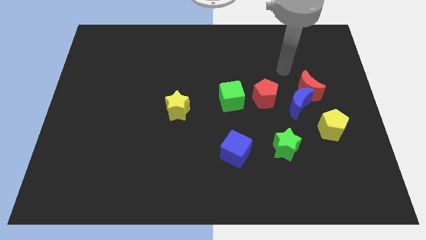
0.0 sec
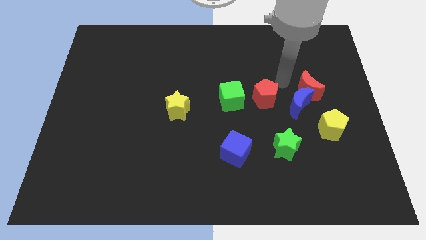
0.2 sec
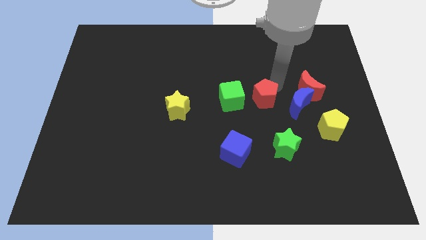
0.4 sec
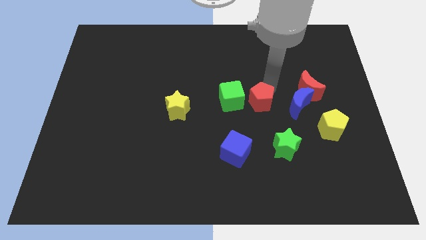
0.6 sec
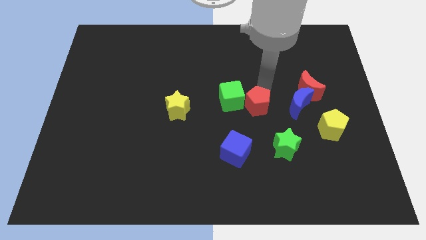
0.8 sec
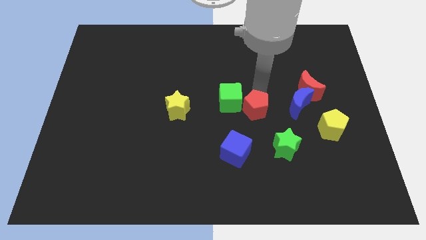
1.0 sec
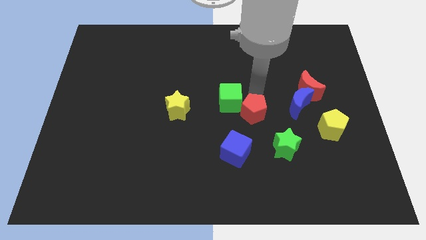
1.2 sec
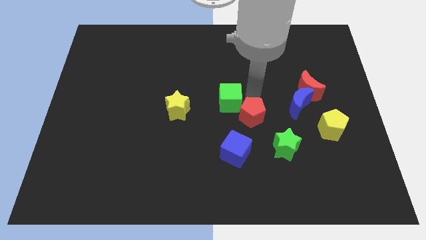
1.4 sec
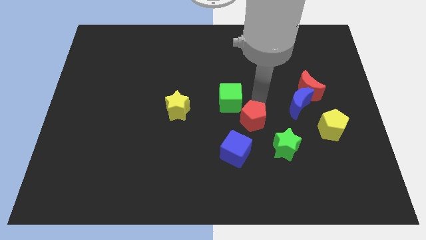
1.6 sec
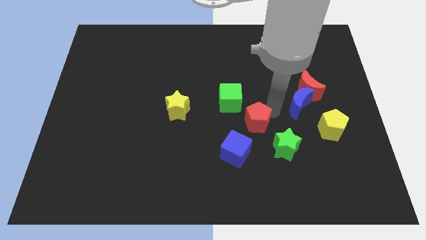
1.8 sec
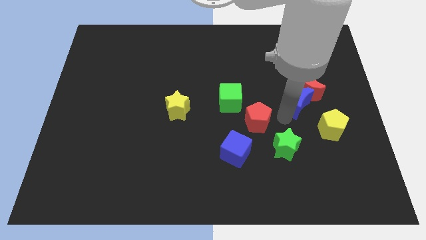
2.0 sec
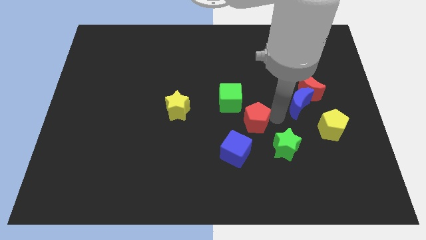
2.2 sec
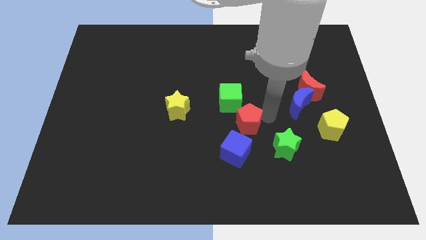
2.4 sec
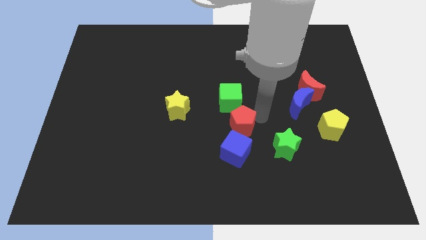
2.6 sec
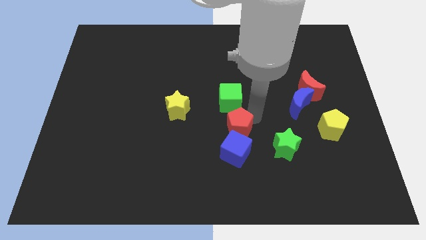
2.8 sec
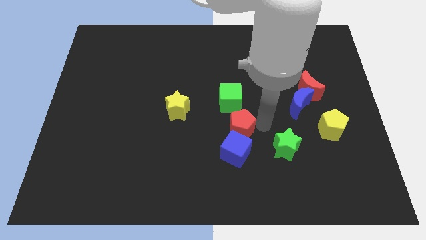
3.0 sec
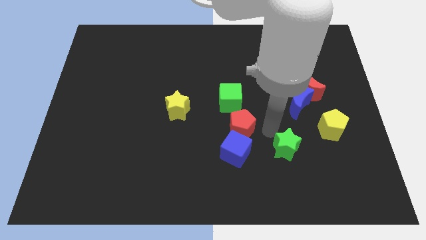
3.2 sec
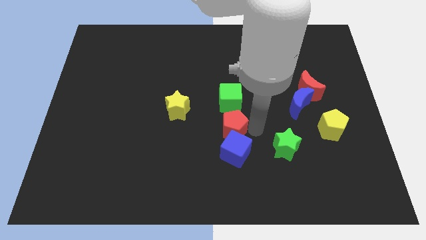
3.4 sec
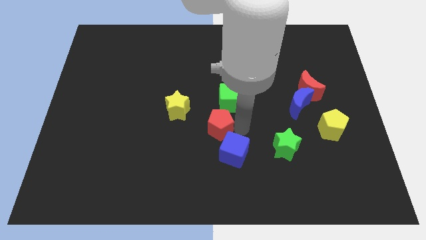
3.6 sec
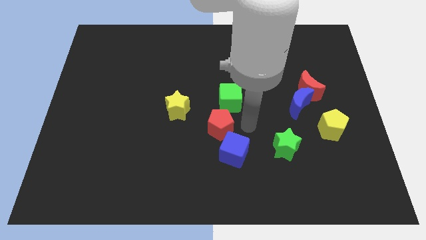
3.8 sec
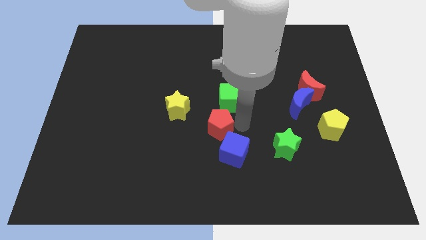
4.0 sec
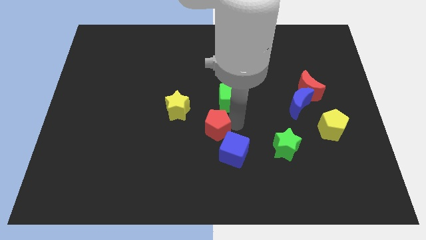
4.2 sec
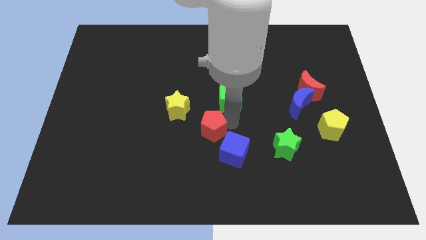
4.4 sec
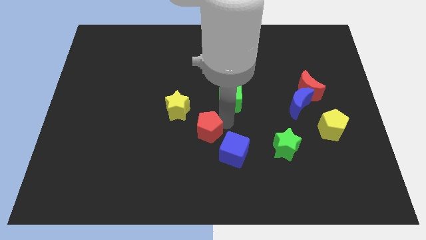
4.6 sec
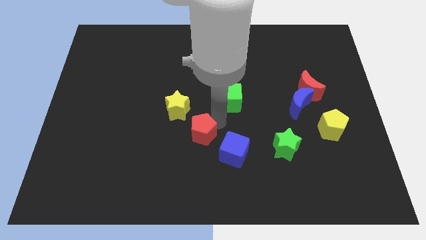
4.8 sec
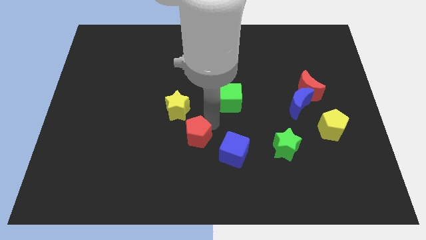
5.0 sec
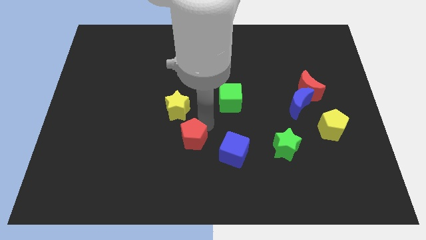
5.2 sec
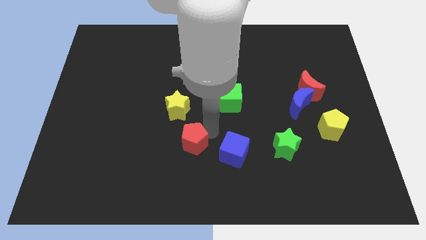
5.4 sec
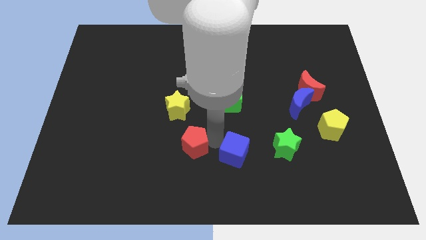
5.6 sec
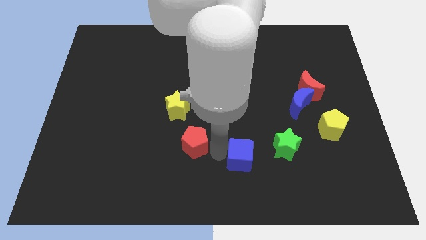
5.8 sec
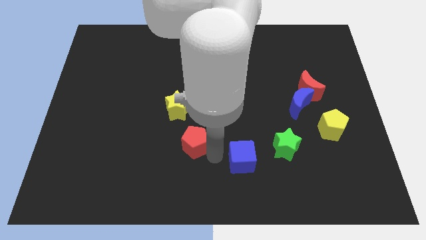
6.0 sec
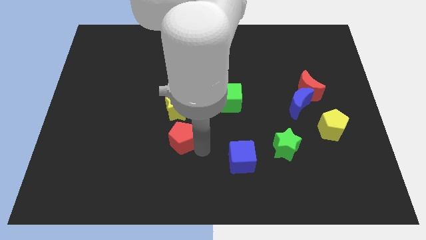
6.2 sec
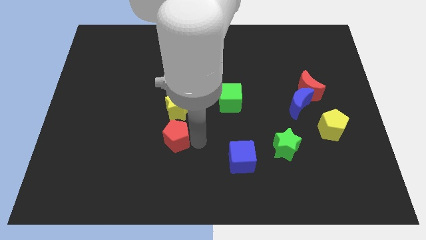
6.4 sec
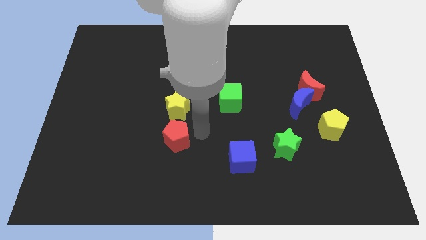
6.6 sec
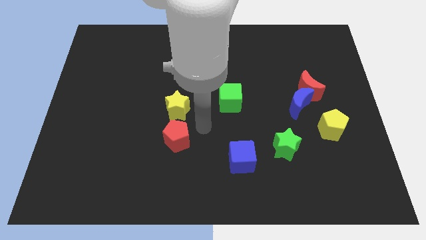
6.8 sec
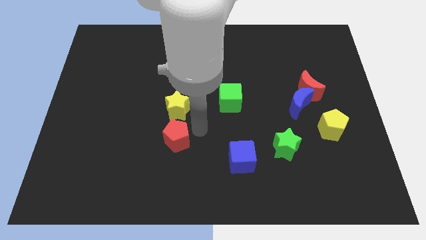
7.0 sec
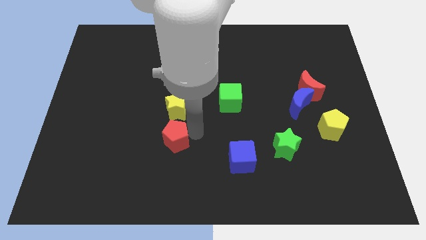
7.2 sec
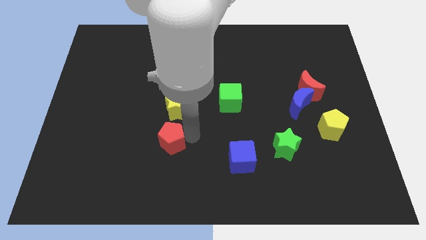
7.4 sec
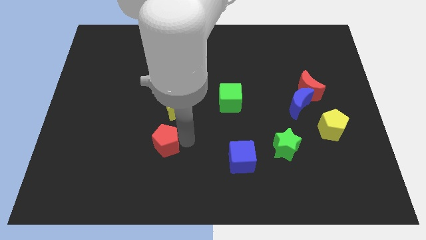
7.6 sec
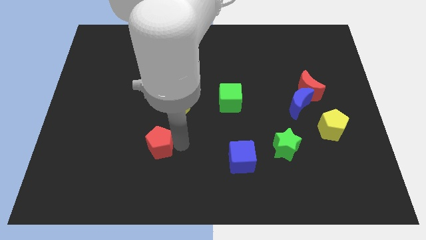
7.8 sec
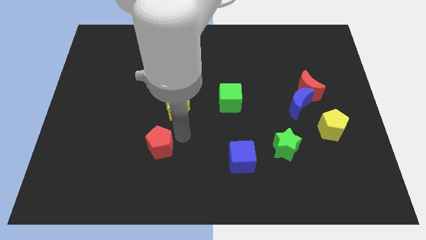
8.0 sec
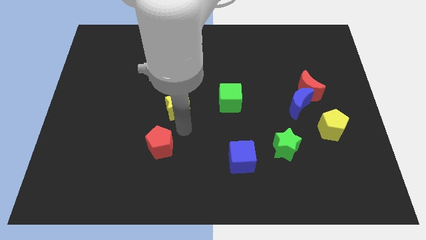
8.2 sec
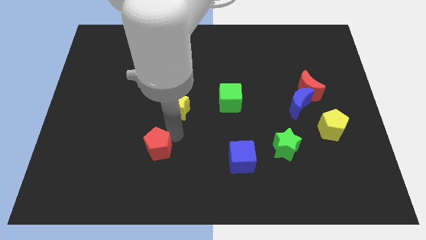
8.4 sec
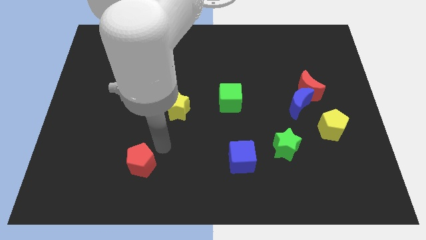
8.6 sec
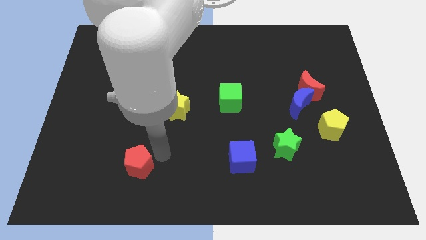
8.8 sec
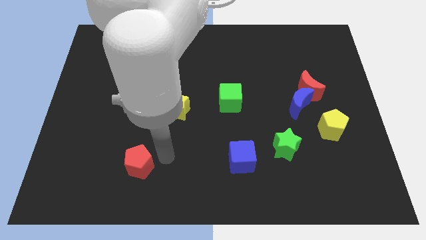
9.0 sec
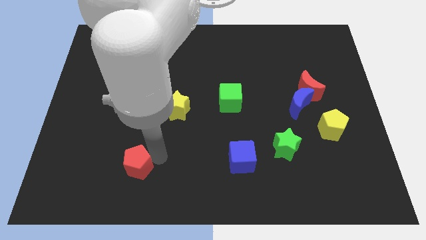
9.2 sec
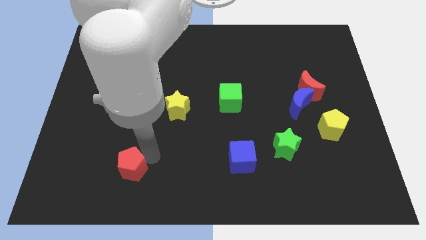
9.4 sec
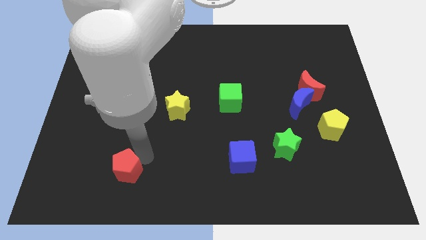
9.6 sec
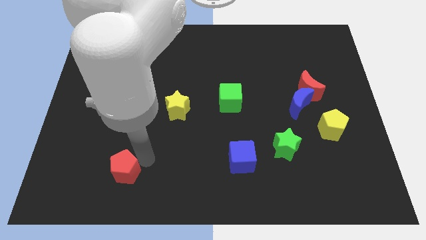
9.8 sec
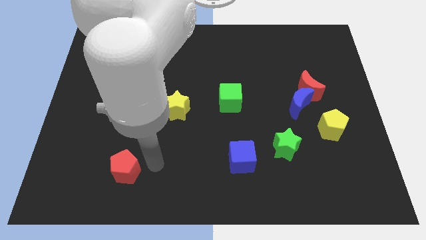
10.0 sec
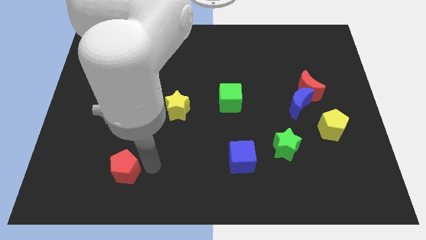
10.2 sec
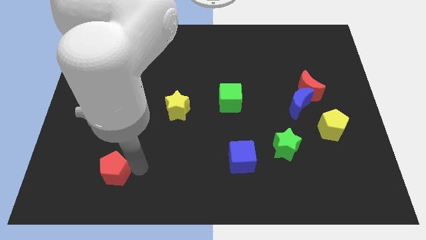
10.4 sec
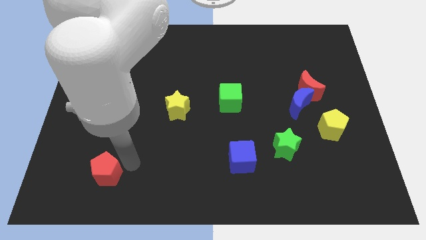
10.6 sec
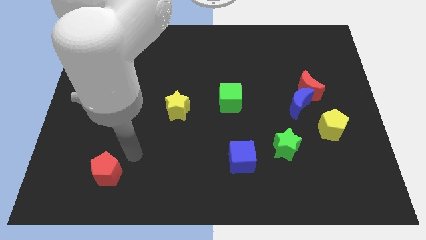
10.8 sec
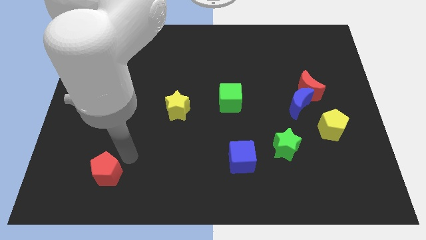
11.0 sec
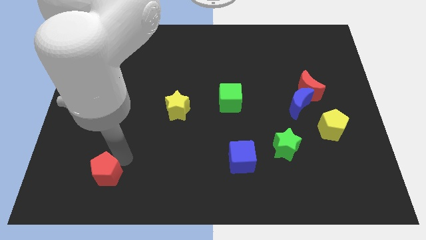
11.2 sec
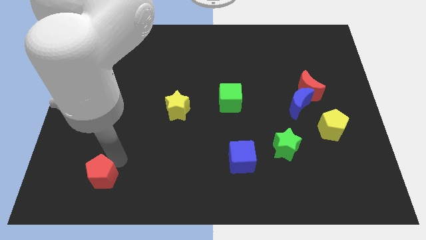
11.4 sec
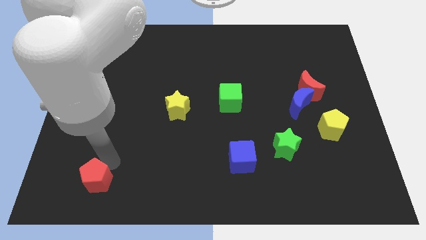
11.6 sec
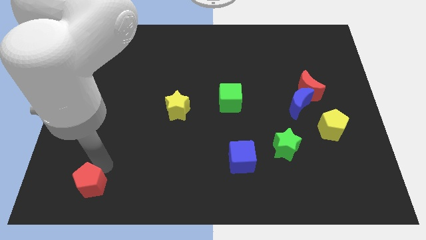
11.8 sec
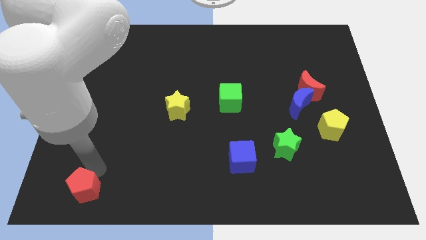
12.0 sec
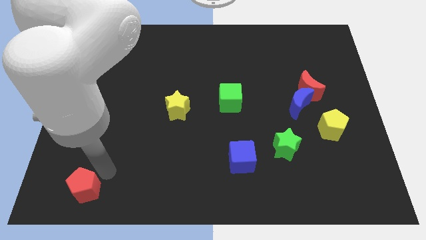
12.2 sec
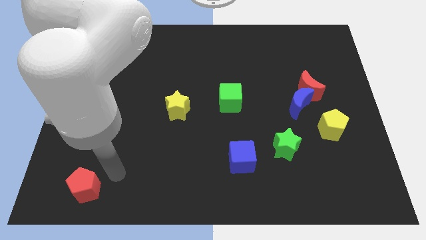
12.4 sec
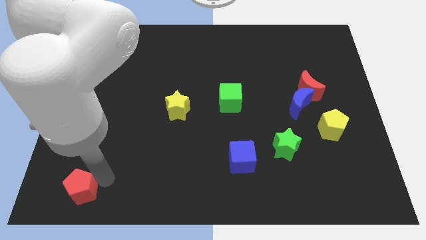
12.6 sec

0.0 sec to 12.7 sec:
push the red pentagon to the lower left corner

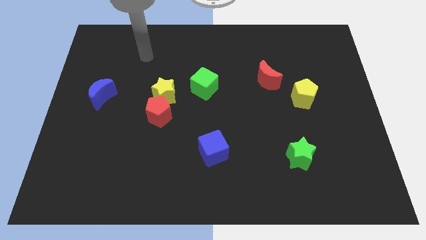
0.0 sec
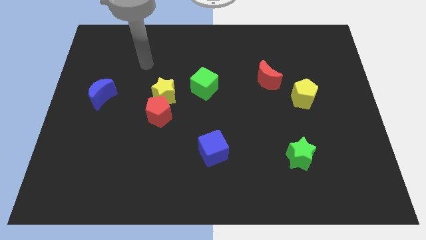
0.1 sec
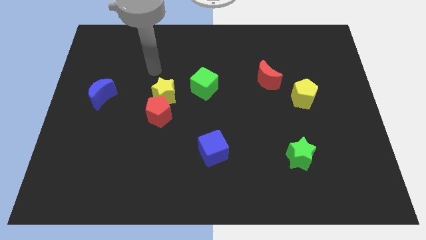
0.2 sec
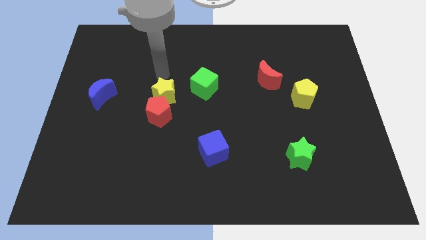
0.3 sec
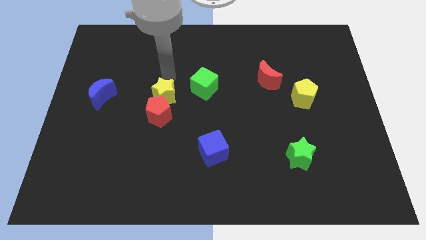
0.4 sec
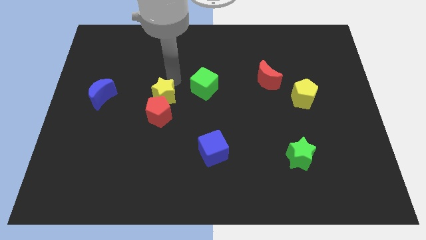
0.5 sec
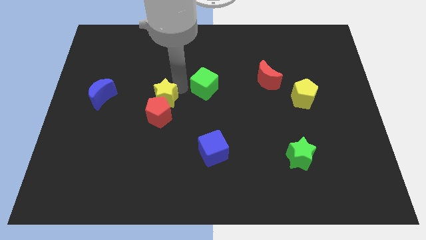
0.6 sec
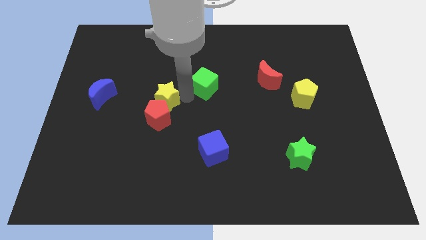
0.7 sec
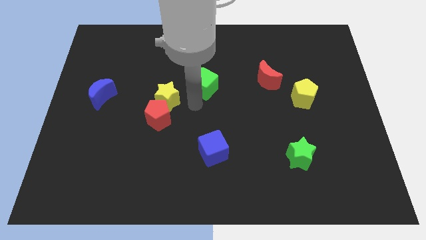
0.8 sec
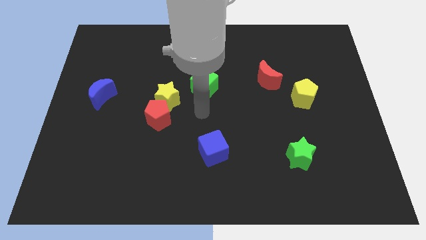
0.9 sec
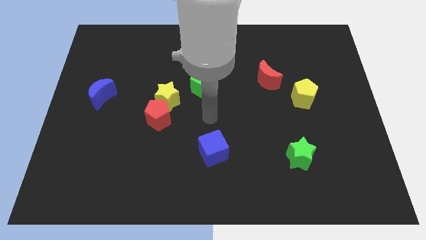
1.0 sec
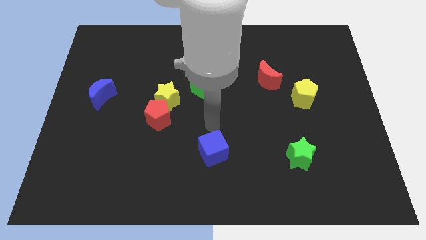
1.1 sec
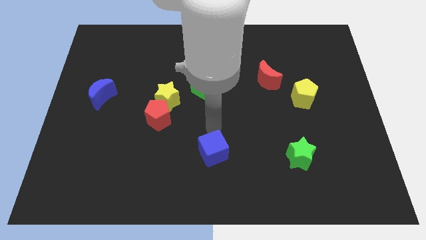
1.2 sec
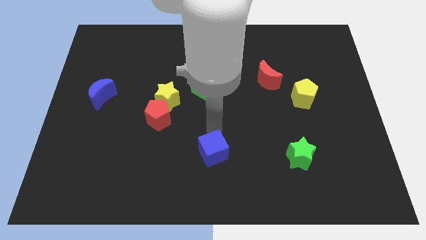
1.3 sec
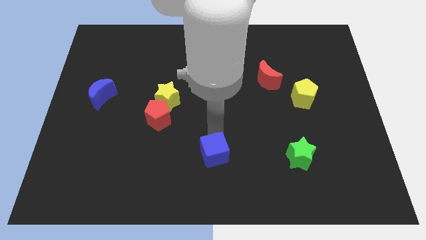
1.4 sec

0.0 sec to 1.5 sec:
slide the blue cube to the bottom side
